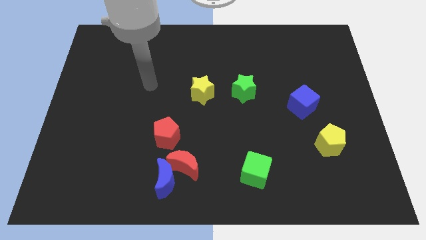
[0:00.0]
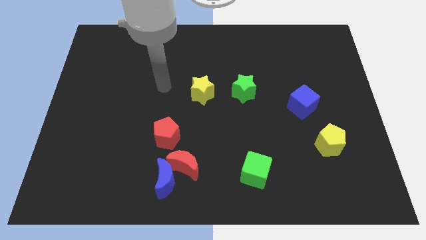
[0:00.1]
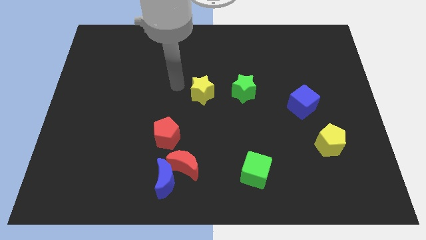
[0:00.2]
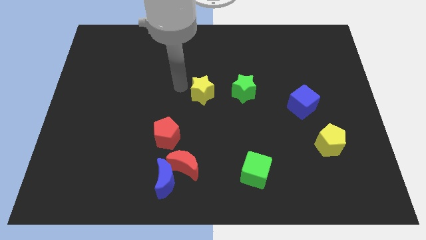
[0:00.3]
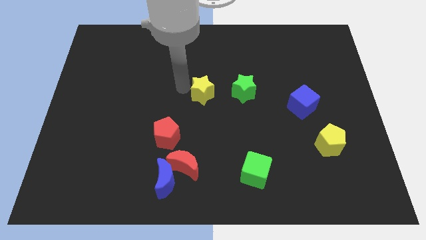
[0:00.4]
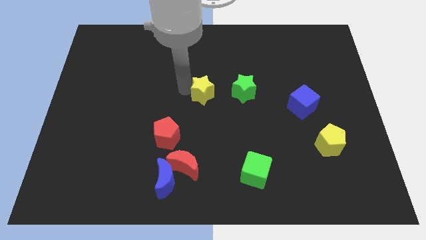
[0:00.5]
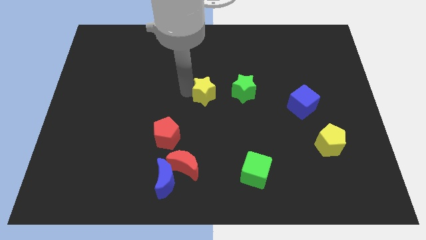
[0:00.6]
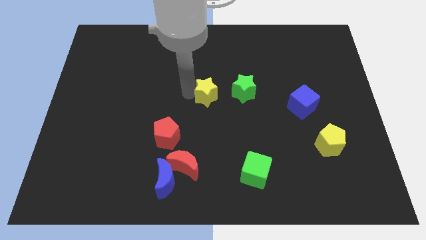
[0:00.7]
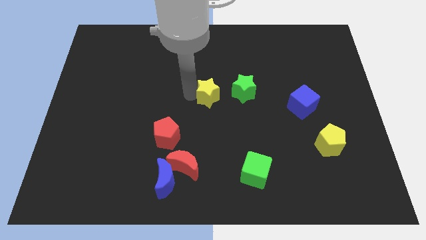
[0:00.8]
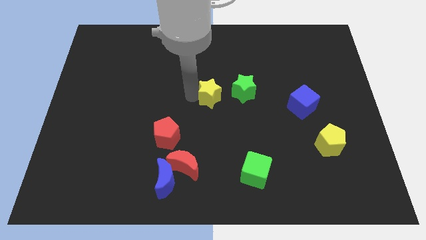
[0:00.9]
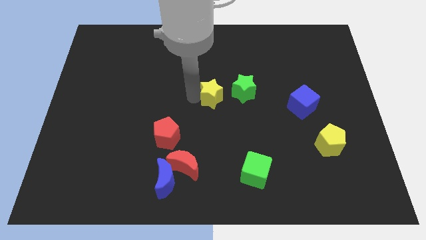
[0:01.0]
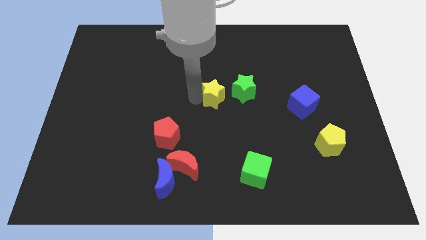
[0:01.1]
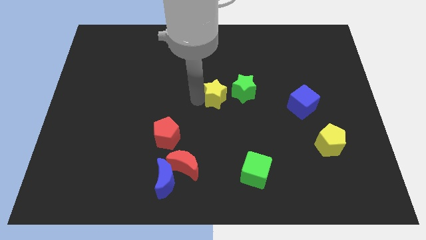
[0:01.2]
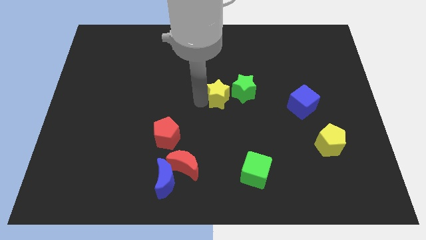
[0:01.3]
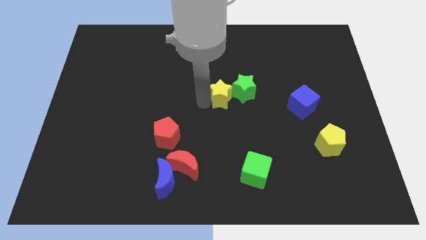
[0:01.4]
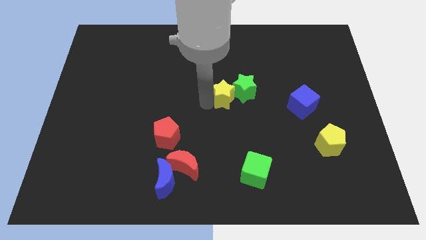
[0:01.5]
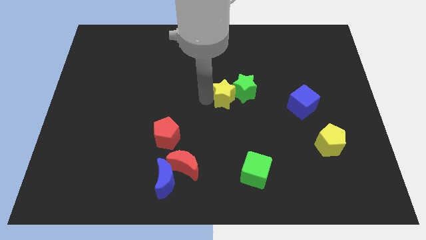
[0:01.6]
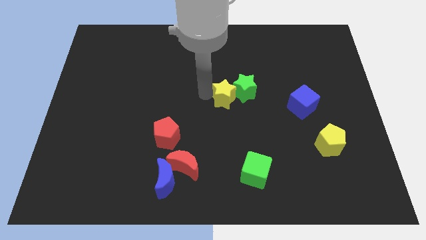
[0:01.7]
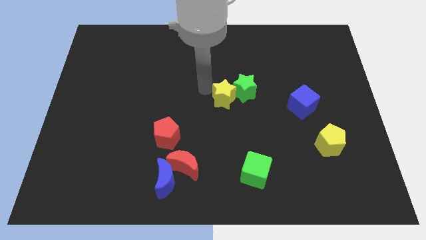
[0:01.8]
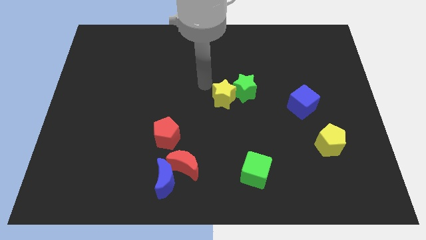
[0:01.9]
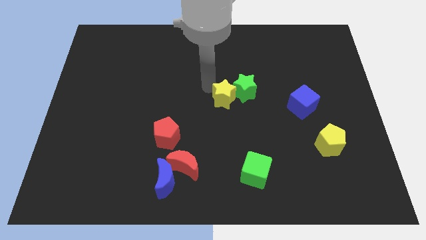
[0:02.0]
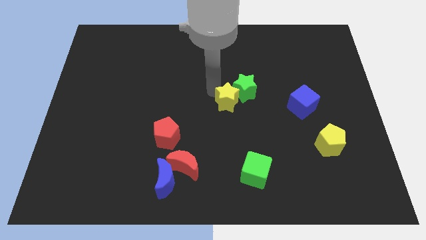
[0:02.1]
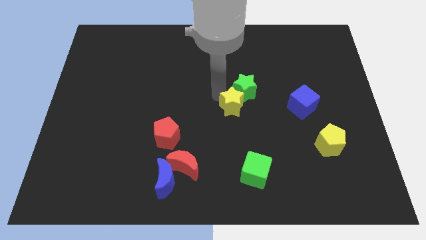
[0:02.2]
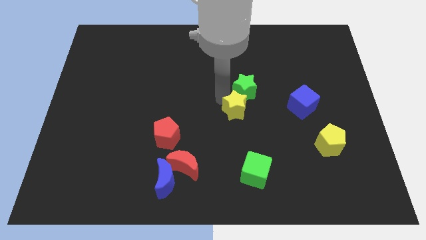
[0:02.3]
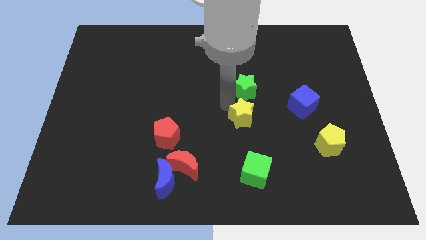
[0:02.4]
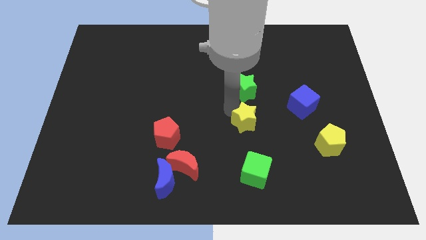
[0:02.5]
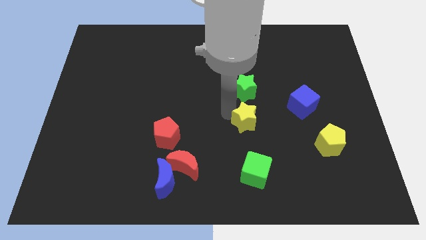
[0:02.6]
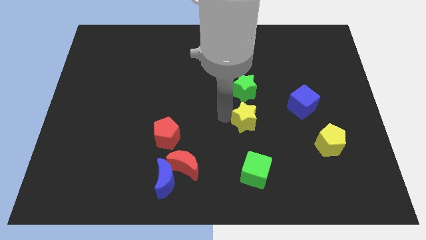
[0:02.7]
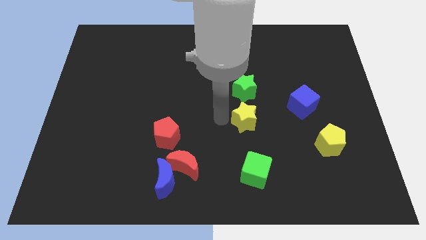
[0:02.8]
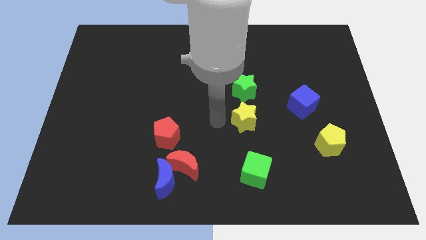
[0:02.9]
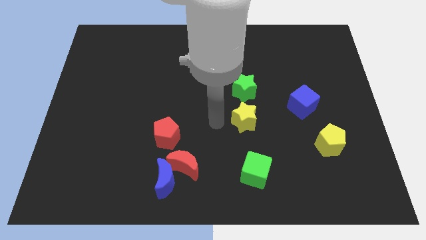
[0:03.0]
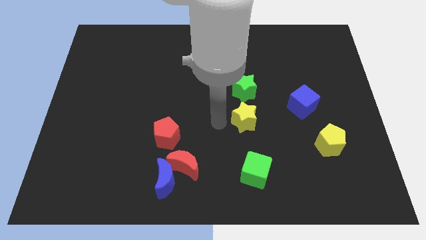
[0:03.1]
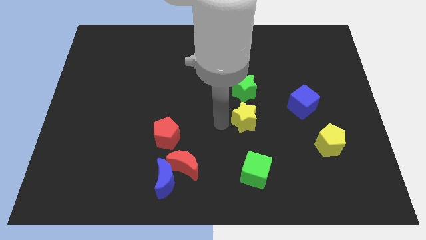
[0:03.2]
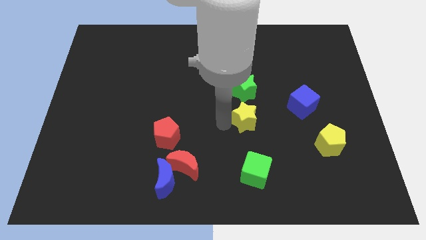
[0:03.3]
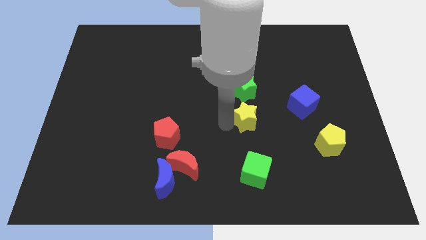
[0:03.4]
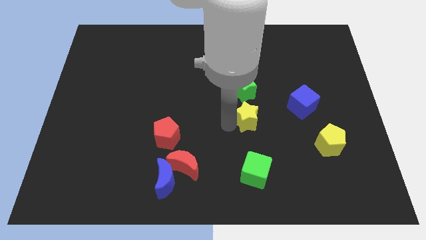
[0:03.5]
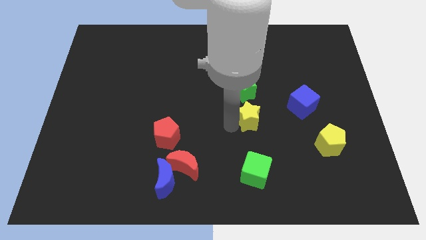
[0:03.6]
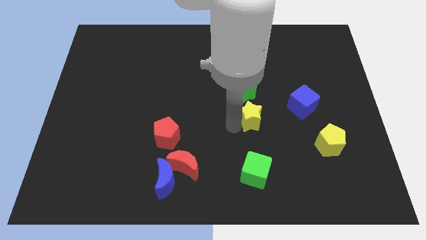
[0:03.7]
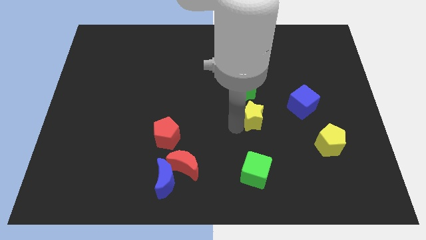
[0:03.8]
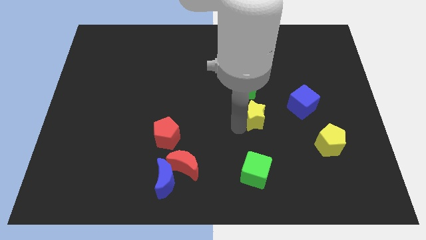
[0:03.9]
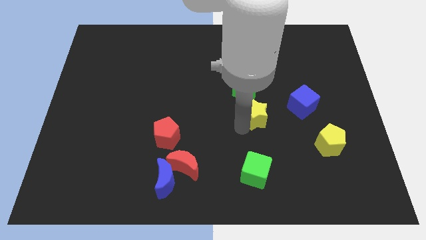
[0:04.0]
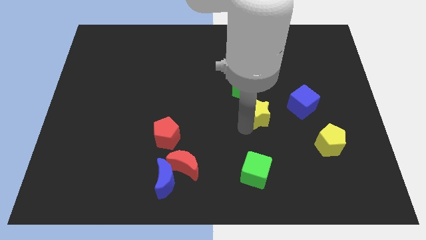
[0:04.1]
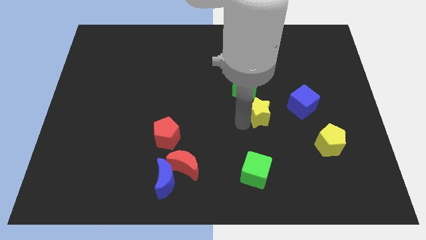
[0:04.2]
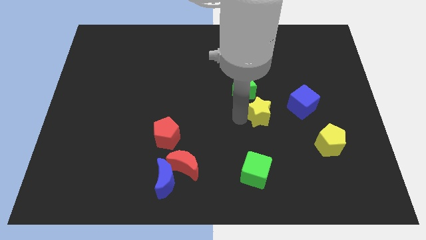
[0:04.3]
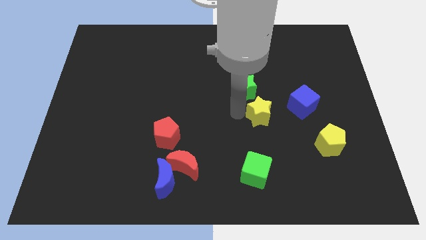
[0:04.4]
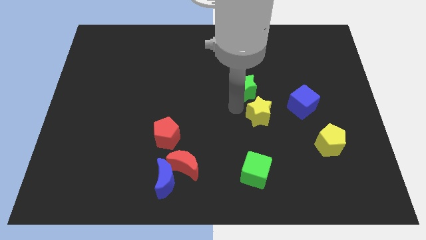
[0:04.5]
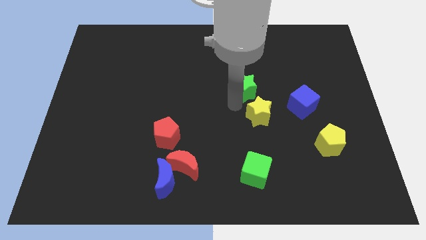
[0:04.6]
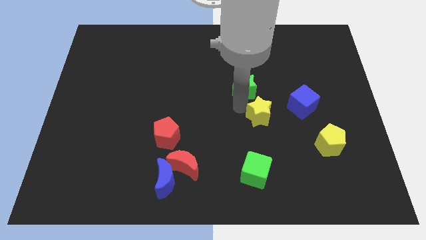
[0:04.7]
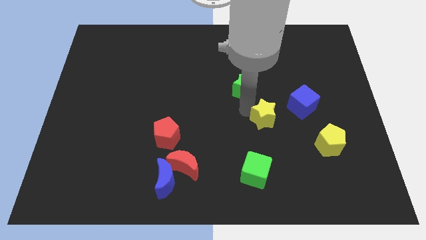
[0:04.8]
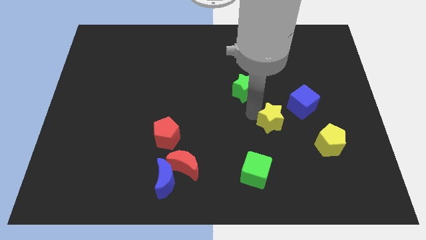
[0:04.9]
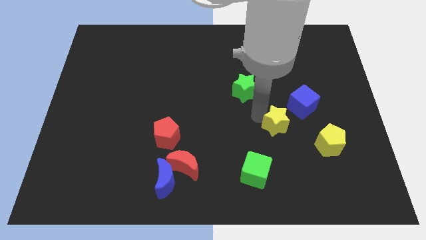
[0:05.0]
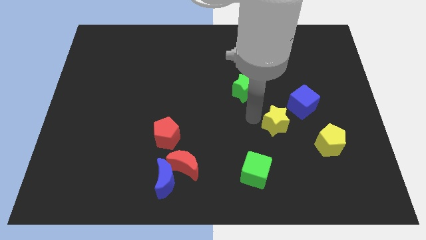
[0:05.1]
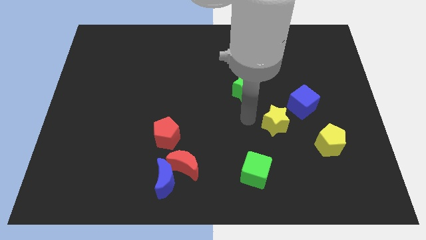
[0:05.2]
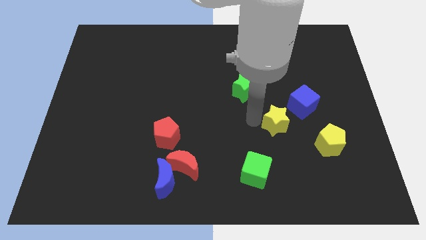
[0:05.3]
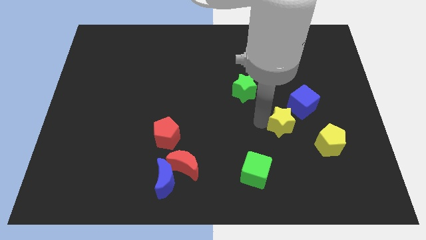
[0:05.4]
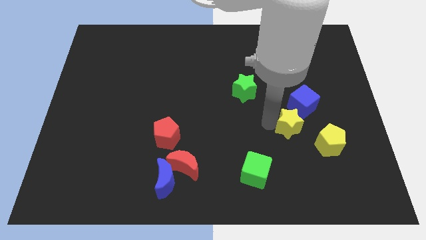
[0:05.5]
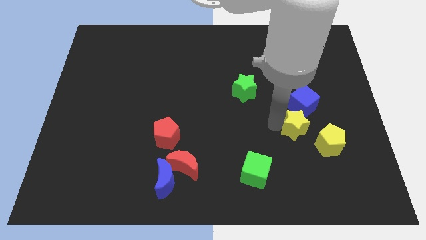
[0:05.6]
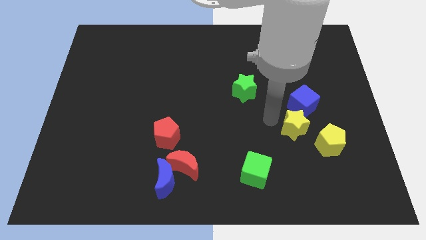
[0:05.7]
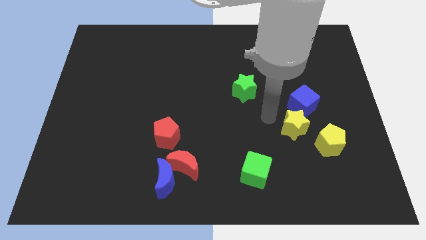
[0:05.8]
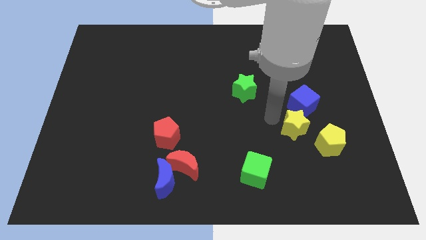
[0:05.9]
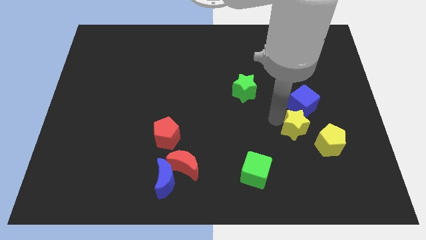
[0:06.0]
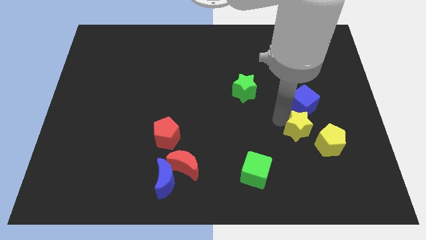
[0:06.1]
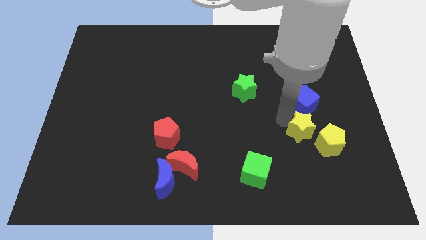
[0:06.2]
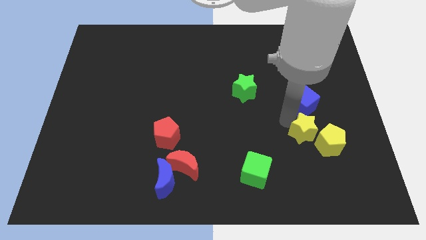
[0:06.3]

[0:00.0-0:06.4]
slide the yellow star next to the yellow pentagon

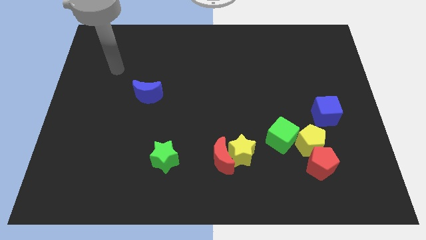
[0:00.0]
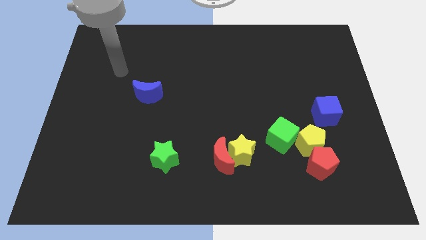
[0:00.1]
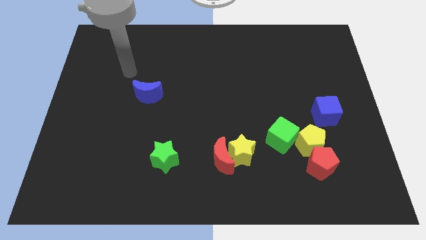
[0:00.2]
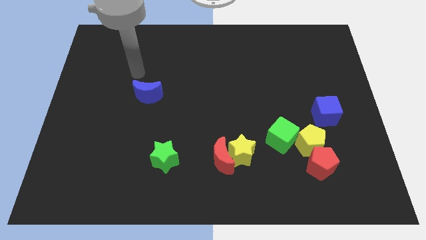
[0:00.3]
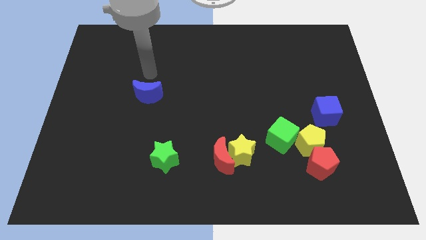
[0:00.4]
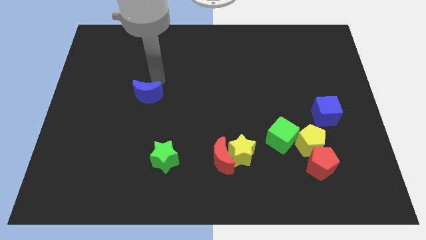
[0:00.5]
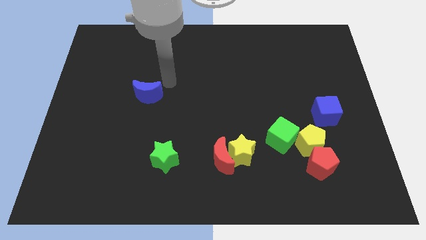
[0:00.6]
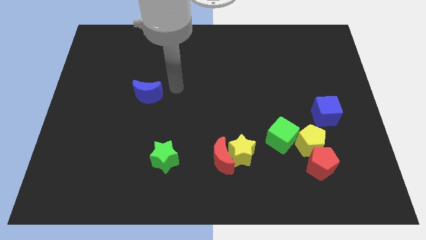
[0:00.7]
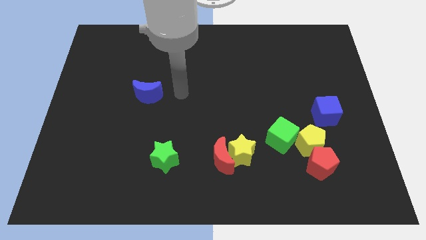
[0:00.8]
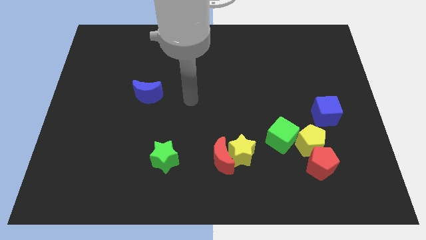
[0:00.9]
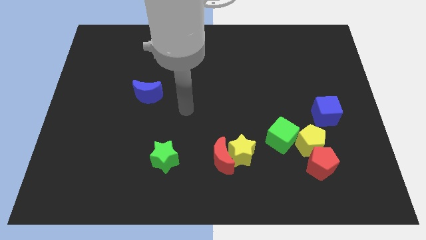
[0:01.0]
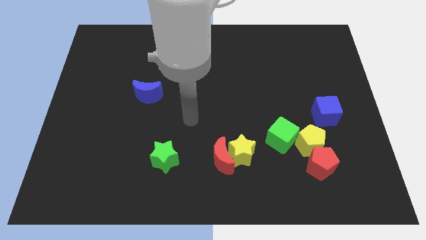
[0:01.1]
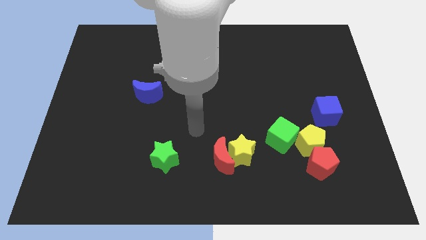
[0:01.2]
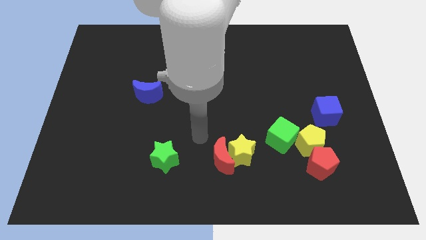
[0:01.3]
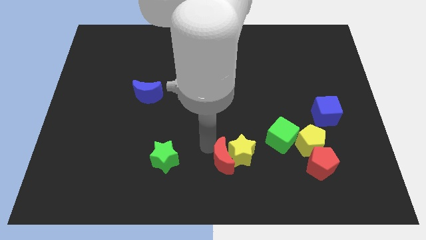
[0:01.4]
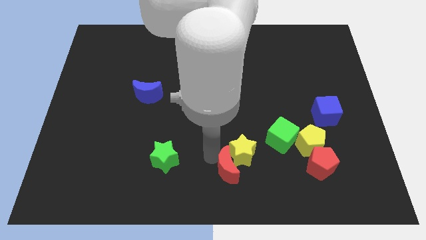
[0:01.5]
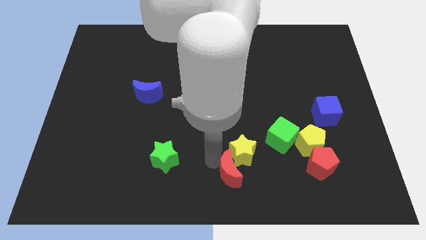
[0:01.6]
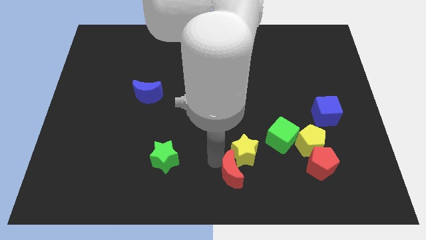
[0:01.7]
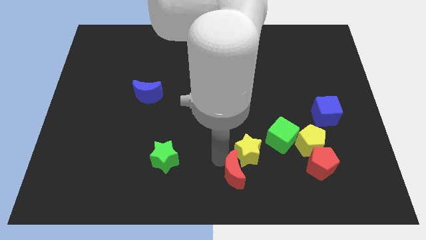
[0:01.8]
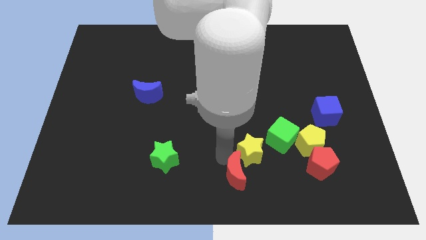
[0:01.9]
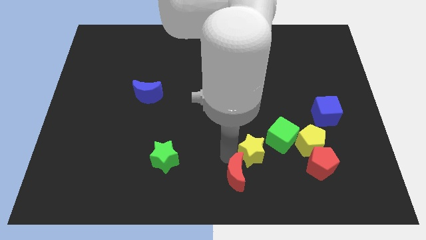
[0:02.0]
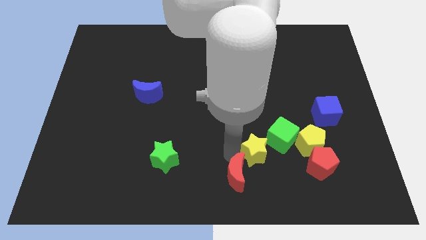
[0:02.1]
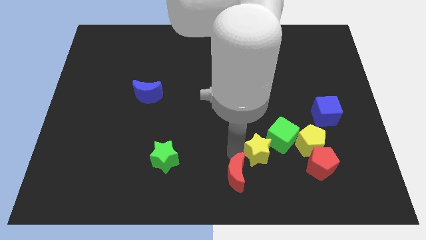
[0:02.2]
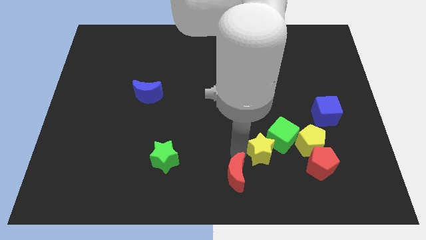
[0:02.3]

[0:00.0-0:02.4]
put the yellow star to the green cube
